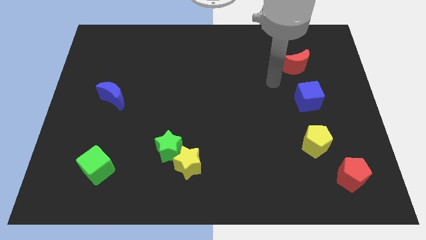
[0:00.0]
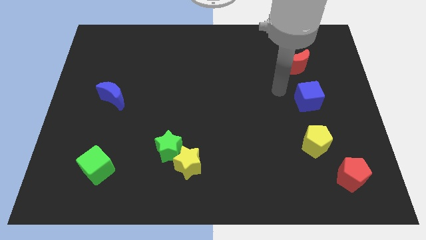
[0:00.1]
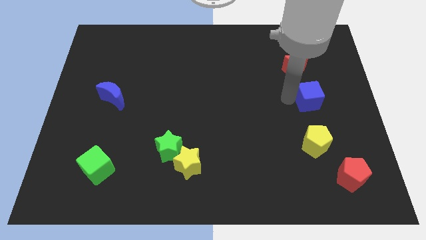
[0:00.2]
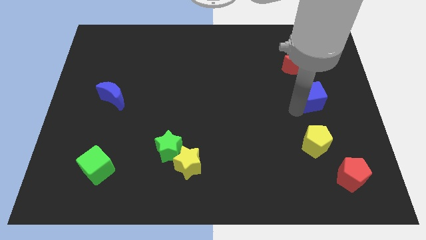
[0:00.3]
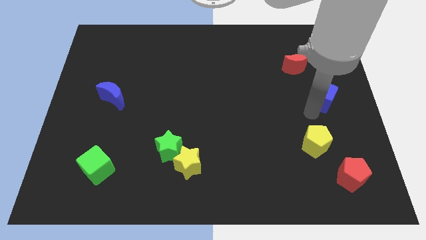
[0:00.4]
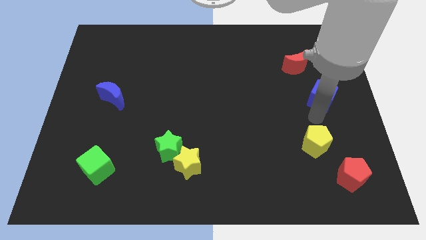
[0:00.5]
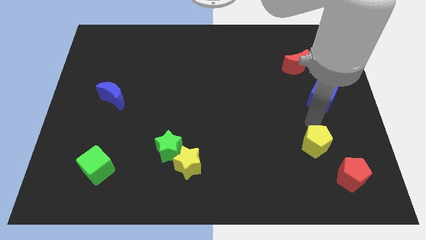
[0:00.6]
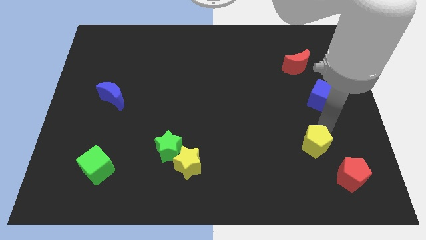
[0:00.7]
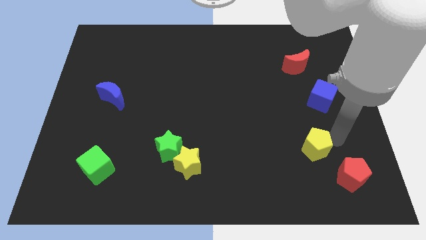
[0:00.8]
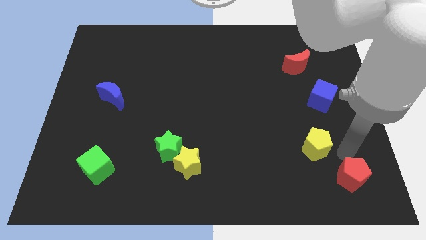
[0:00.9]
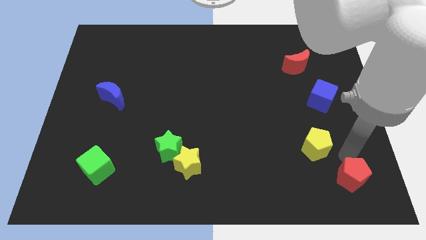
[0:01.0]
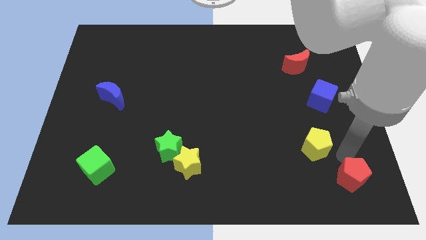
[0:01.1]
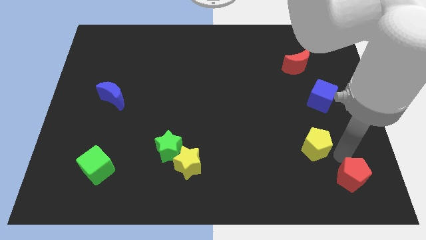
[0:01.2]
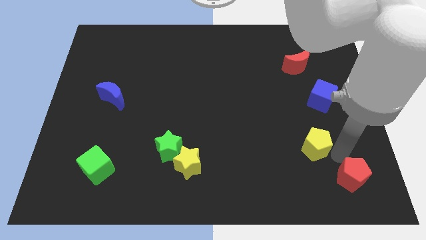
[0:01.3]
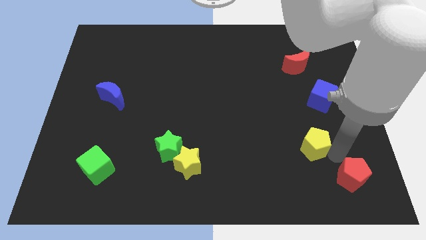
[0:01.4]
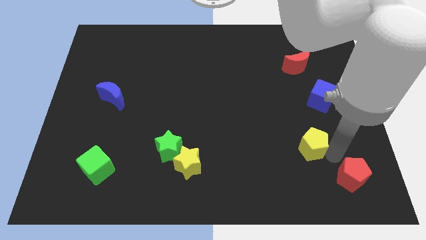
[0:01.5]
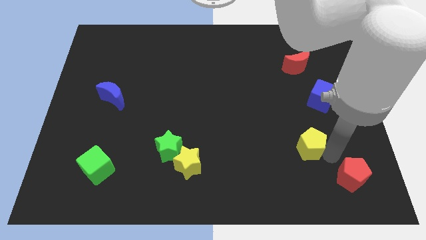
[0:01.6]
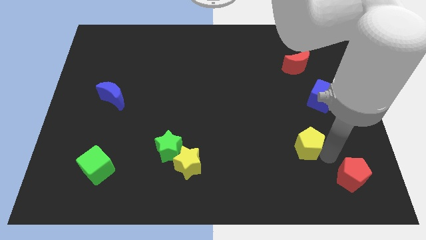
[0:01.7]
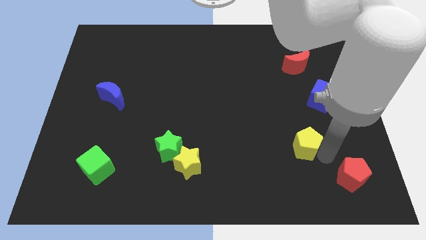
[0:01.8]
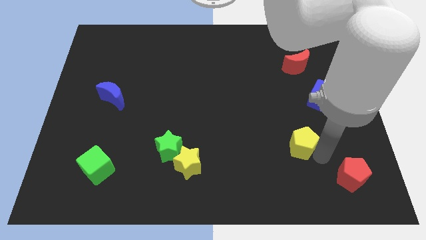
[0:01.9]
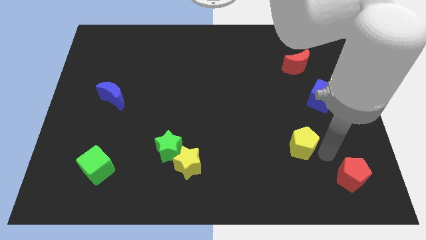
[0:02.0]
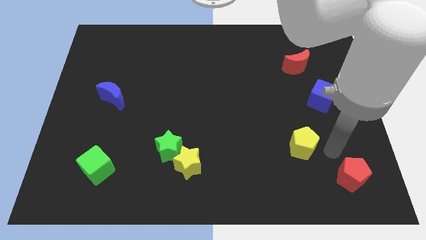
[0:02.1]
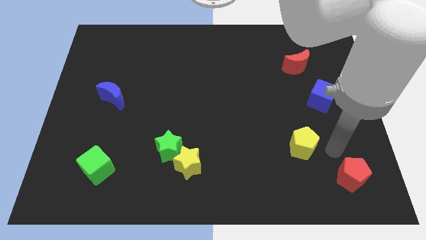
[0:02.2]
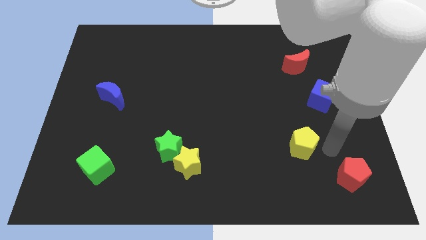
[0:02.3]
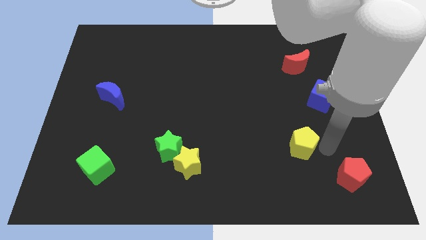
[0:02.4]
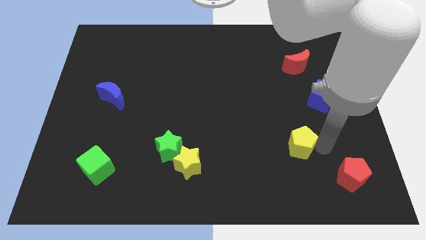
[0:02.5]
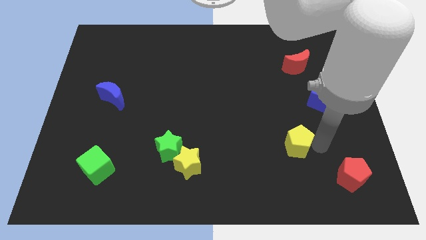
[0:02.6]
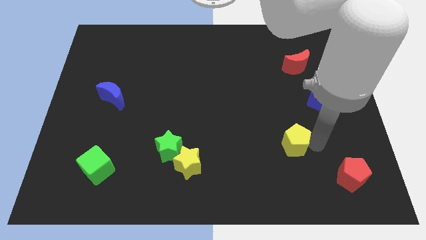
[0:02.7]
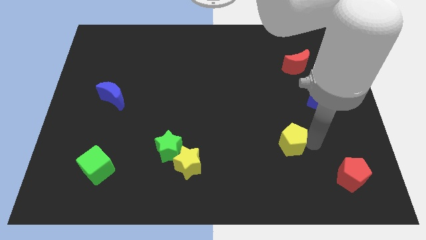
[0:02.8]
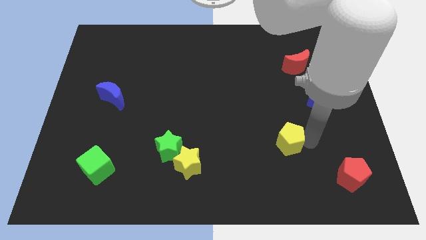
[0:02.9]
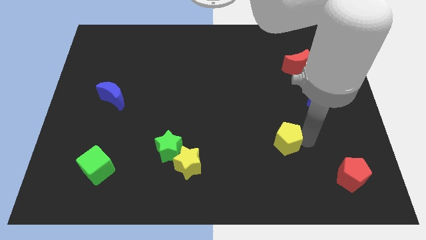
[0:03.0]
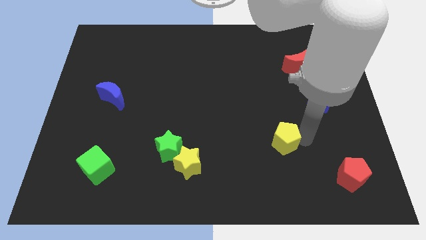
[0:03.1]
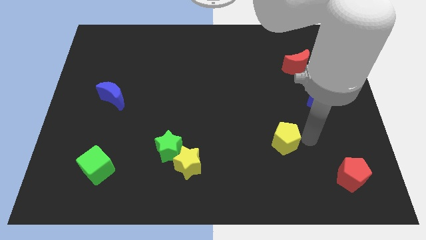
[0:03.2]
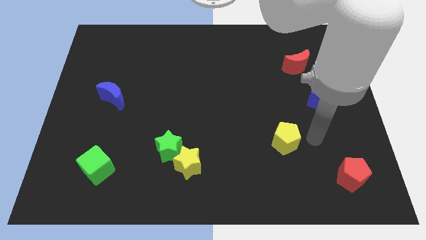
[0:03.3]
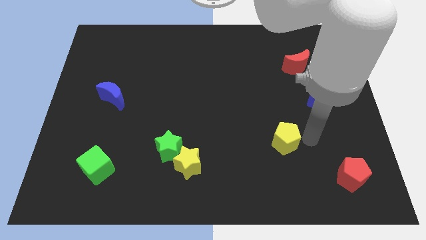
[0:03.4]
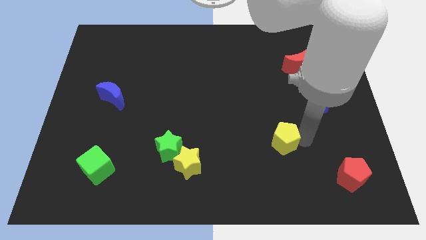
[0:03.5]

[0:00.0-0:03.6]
slightly move the yellow pentagon to the left

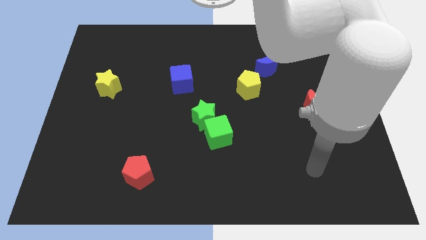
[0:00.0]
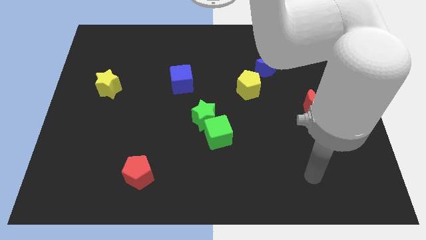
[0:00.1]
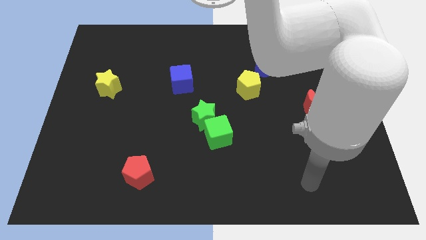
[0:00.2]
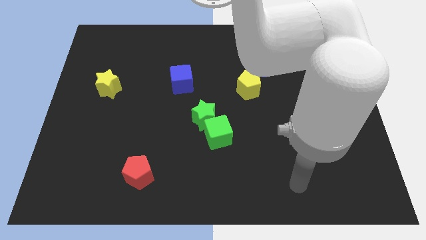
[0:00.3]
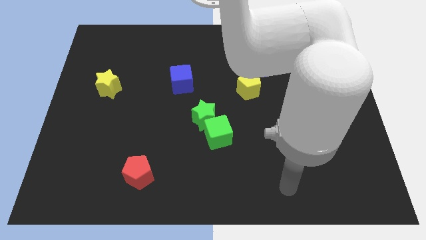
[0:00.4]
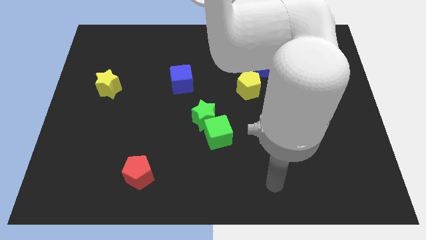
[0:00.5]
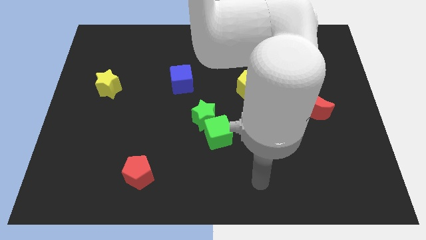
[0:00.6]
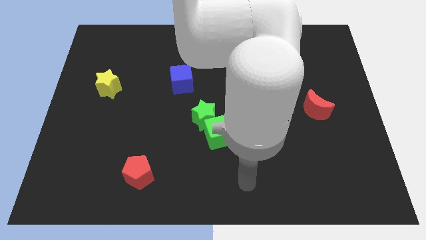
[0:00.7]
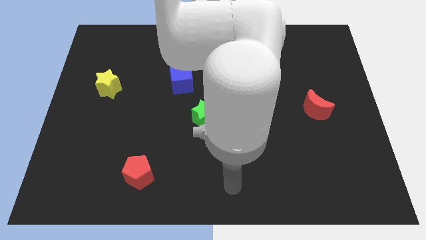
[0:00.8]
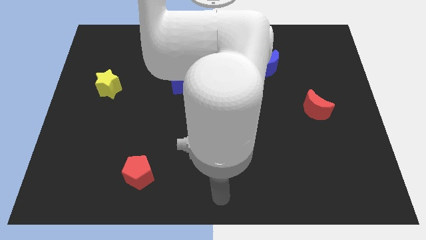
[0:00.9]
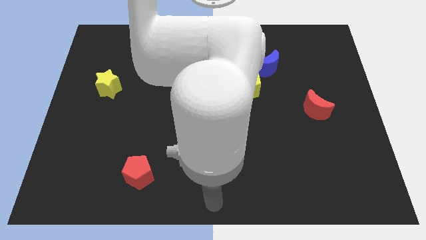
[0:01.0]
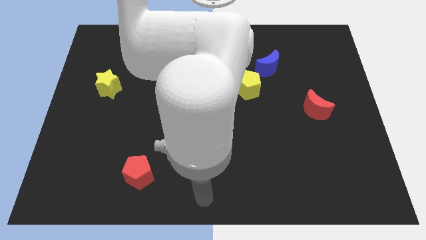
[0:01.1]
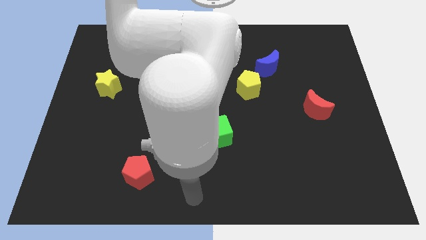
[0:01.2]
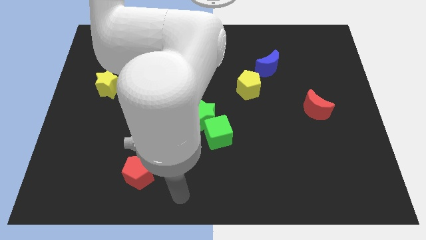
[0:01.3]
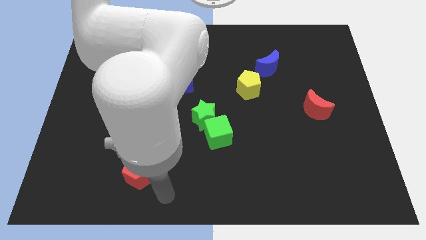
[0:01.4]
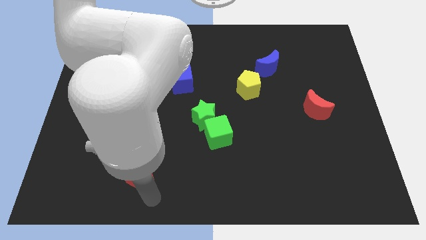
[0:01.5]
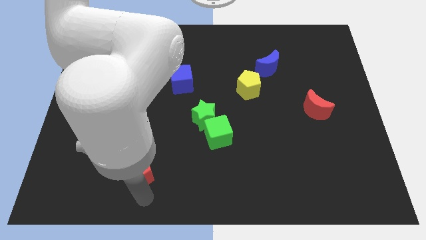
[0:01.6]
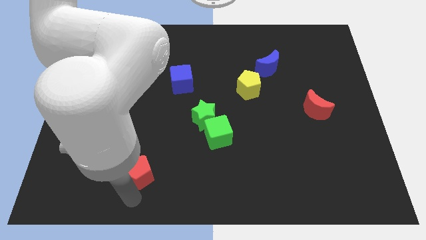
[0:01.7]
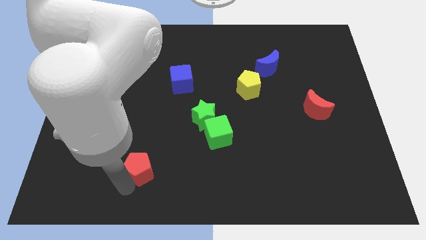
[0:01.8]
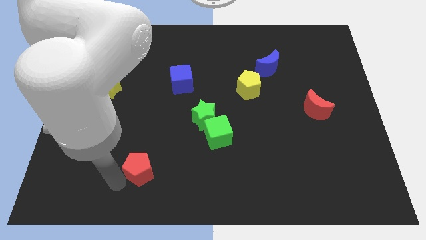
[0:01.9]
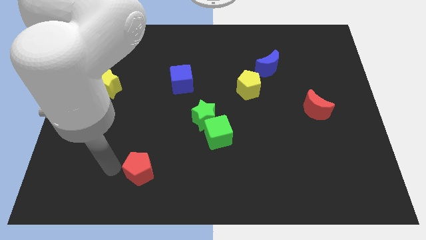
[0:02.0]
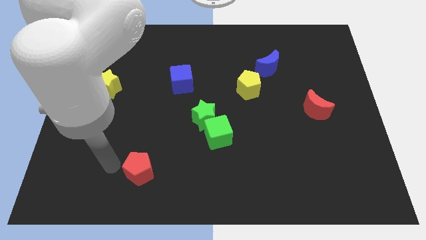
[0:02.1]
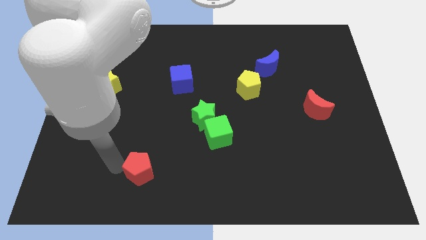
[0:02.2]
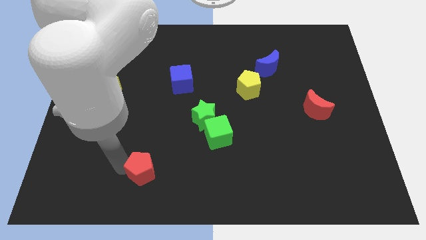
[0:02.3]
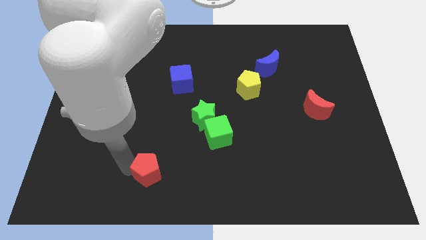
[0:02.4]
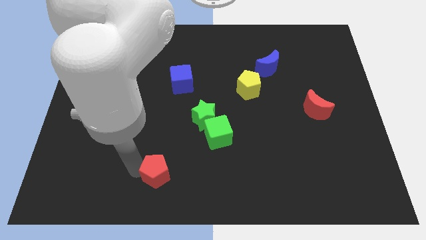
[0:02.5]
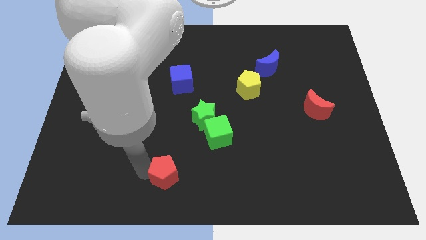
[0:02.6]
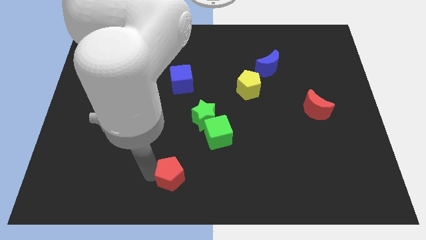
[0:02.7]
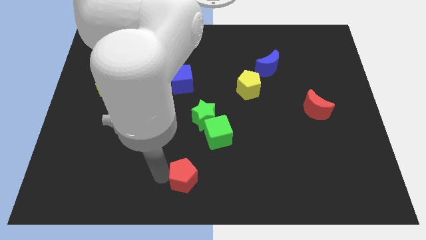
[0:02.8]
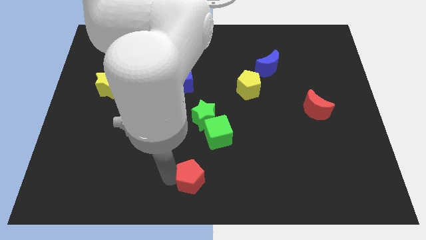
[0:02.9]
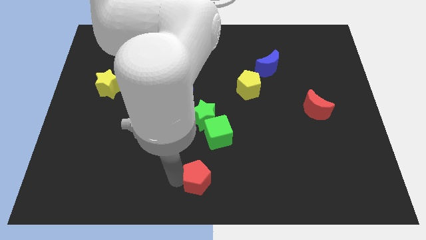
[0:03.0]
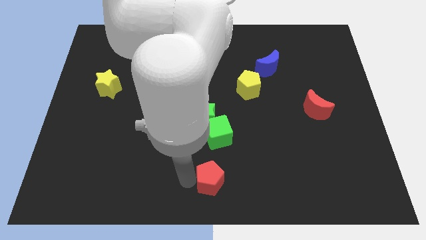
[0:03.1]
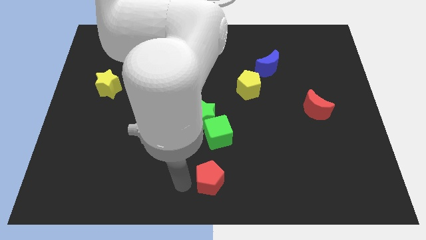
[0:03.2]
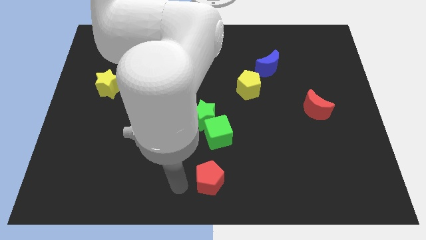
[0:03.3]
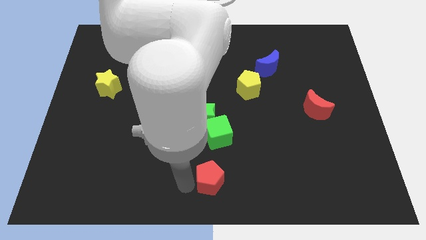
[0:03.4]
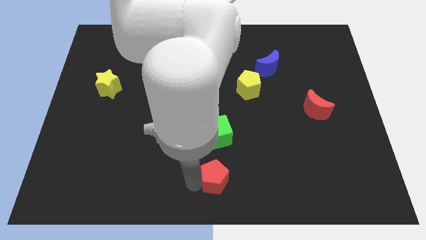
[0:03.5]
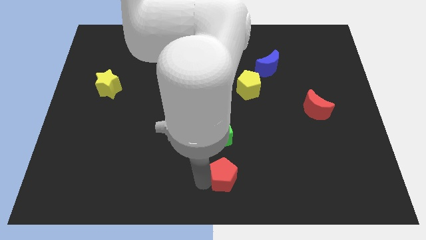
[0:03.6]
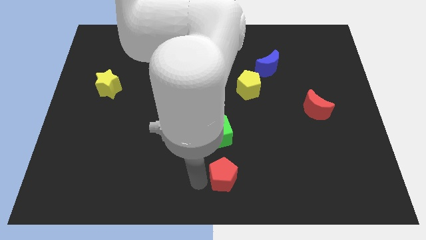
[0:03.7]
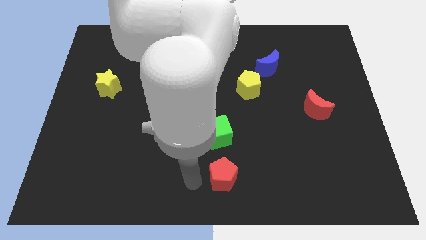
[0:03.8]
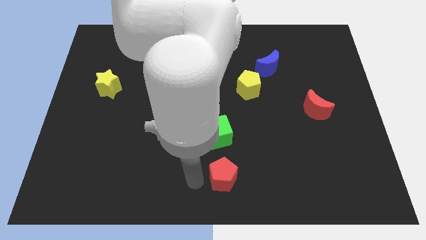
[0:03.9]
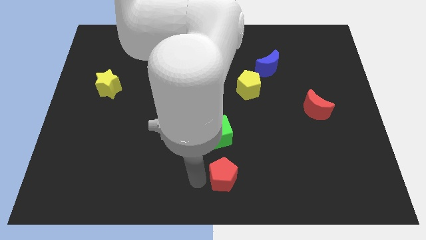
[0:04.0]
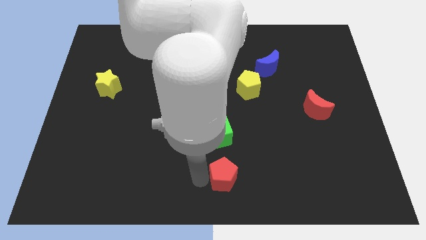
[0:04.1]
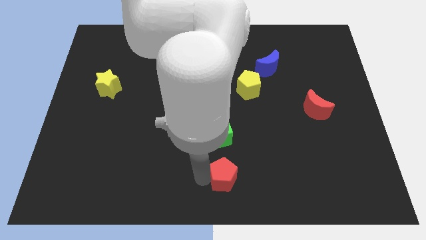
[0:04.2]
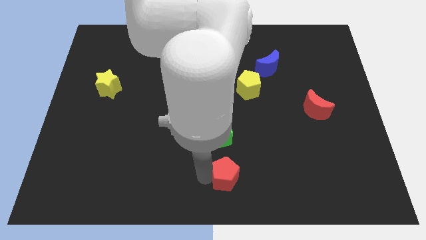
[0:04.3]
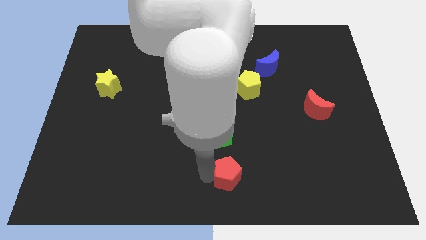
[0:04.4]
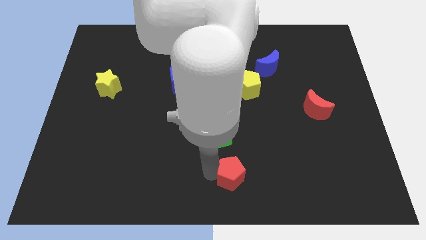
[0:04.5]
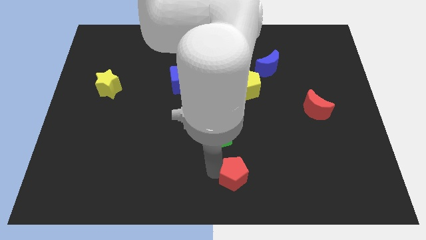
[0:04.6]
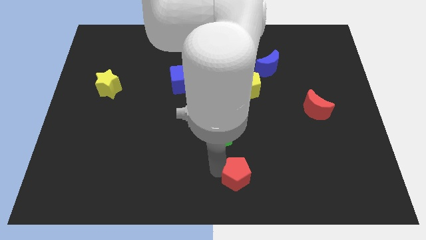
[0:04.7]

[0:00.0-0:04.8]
slide the red pentagon to the right

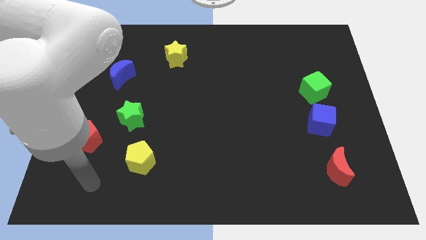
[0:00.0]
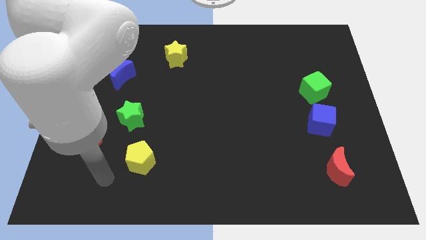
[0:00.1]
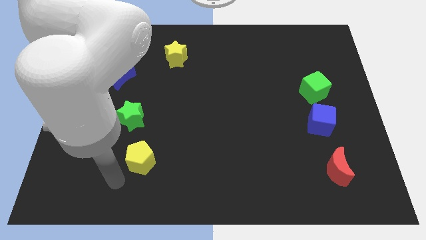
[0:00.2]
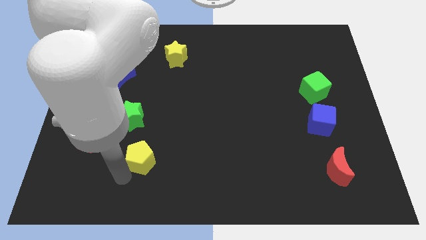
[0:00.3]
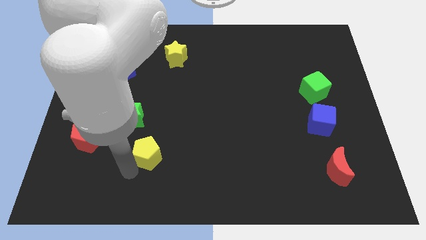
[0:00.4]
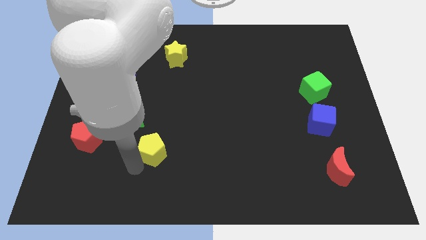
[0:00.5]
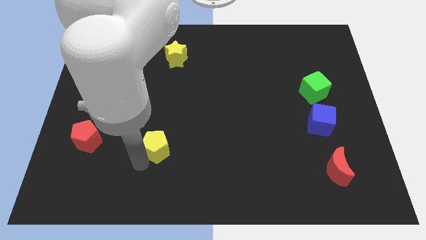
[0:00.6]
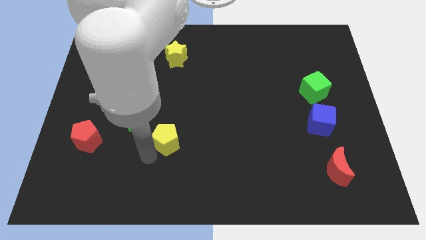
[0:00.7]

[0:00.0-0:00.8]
slightly move the yellow pentagon up and to the right diagonally
